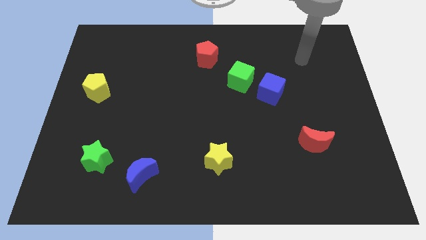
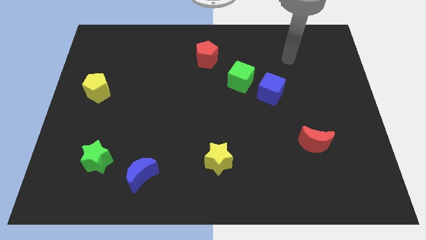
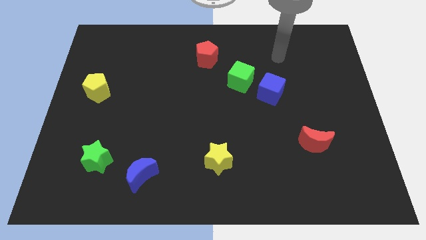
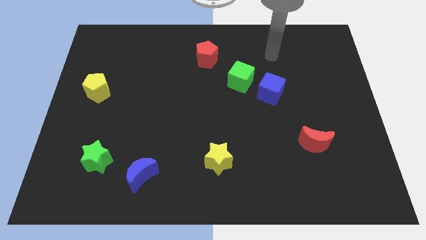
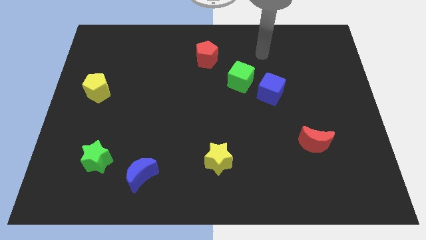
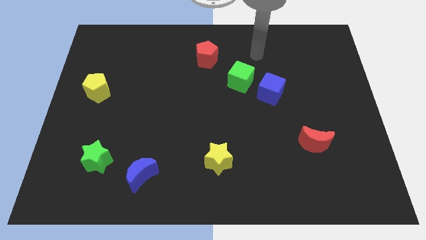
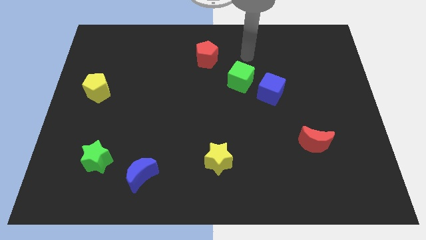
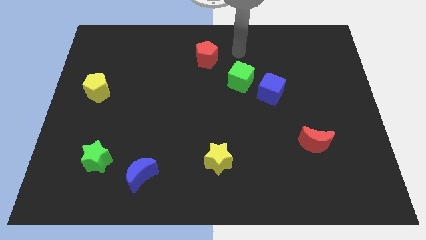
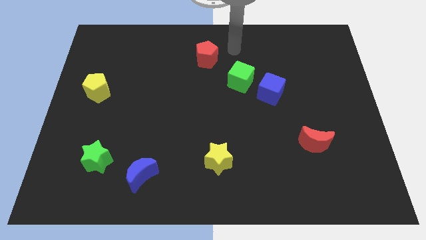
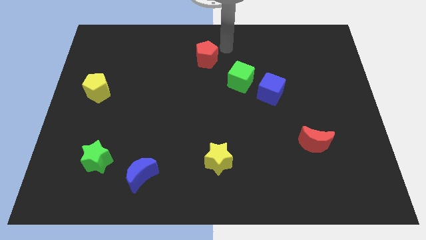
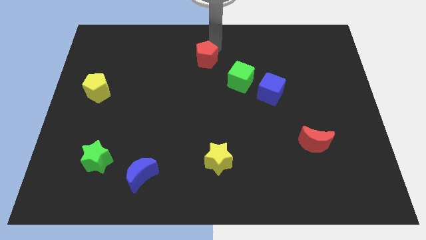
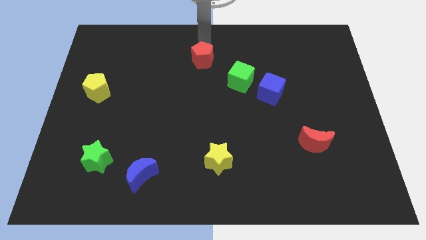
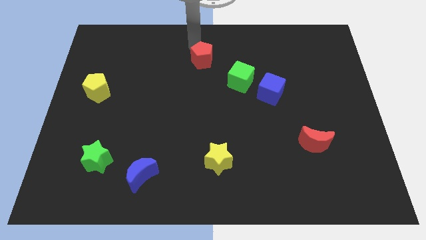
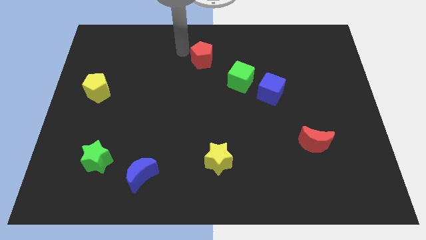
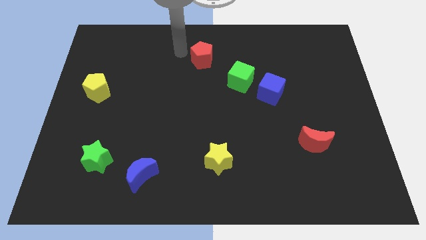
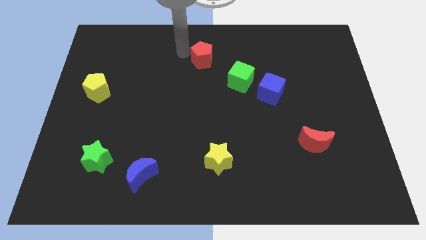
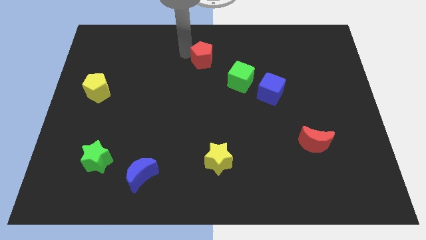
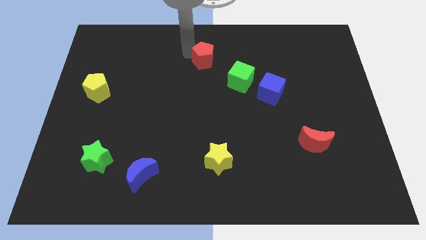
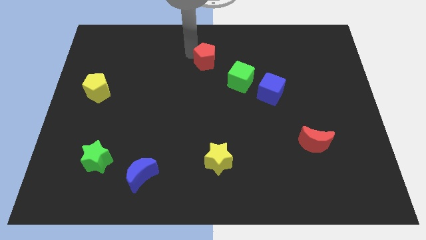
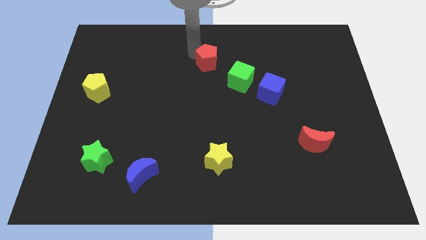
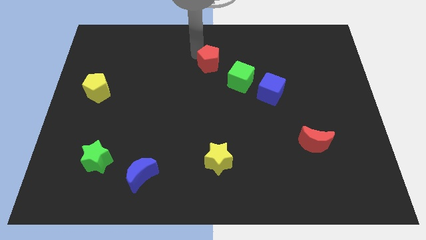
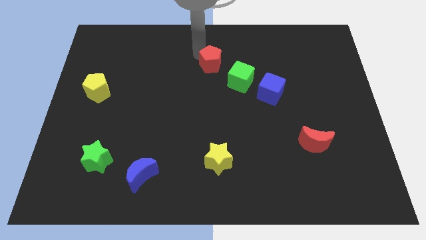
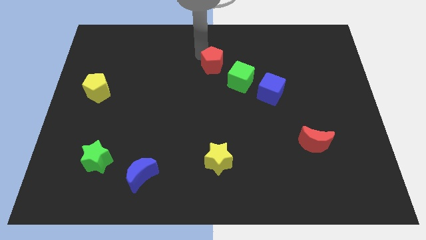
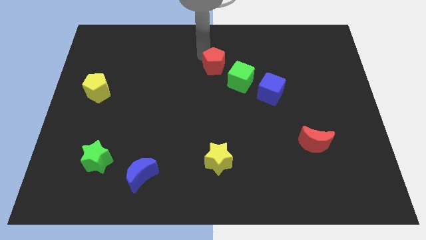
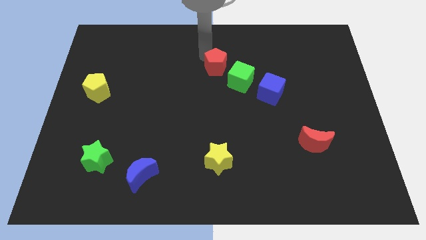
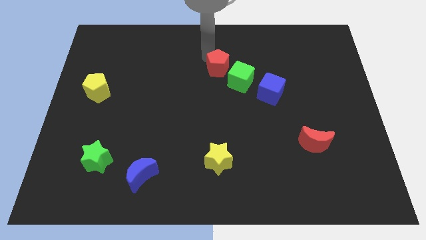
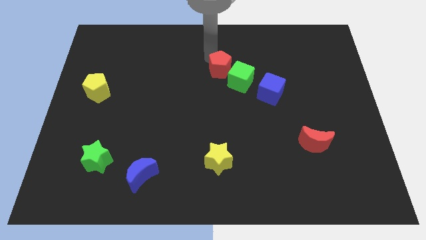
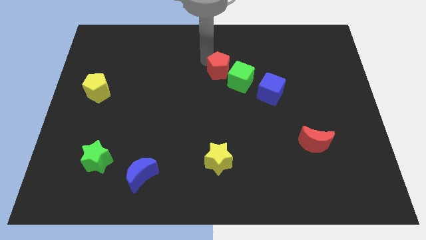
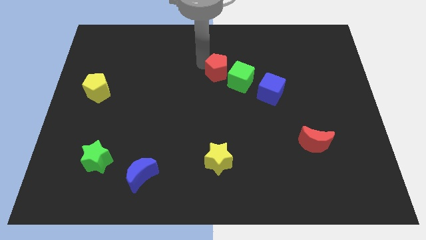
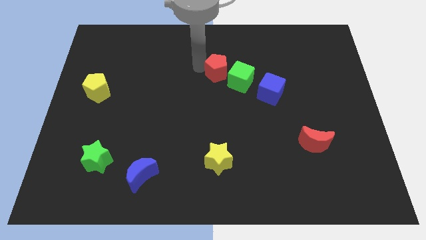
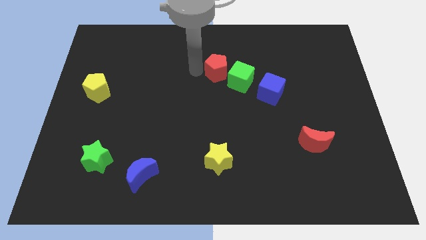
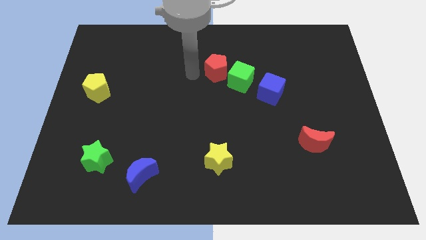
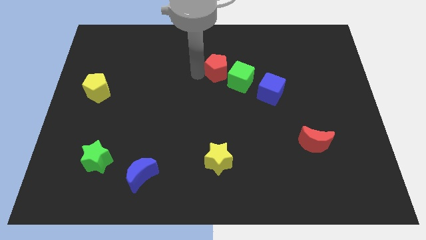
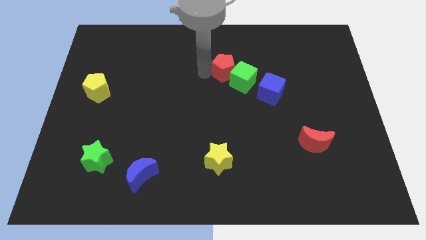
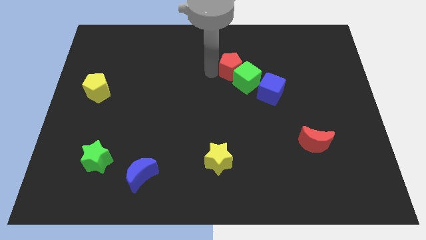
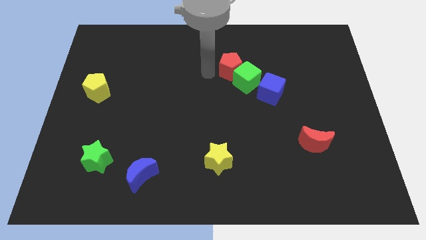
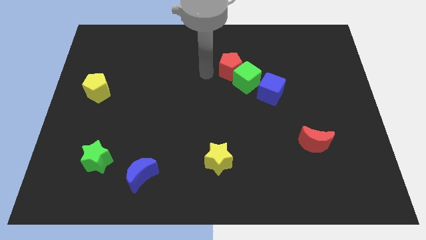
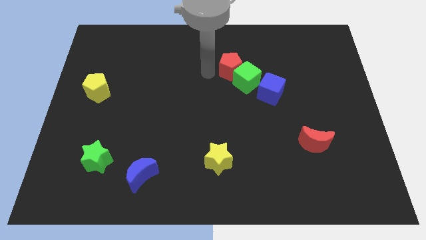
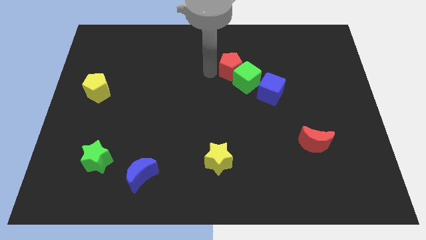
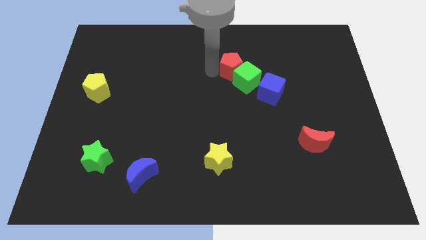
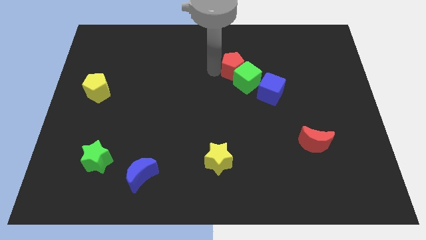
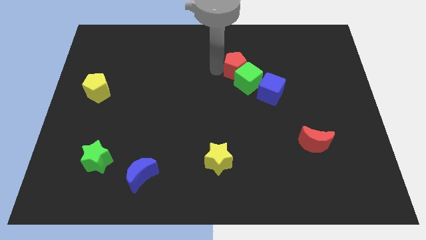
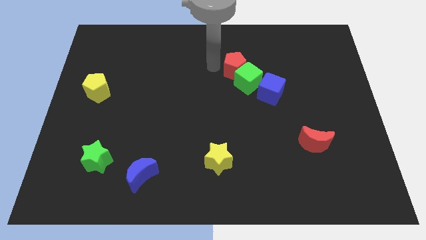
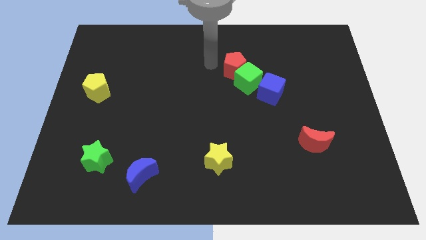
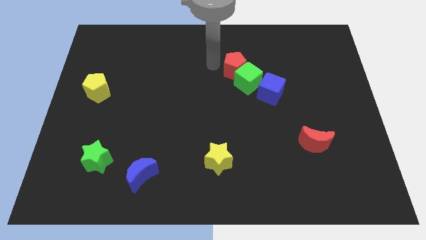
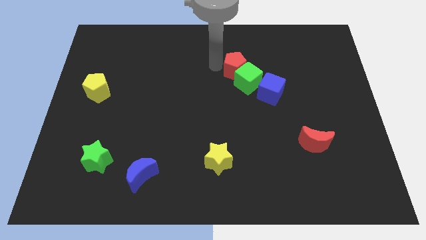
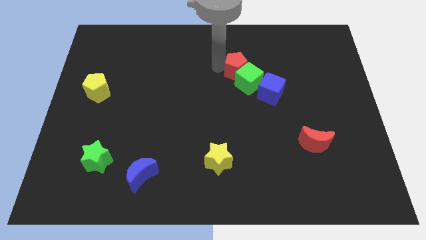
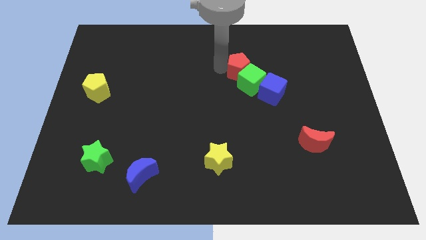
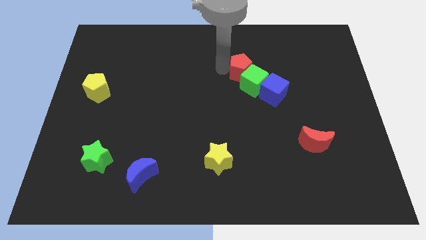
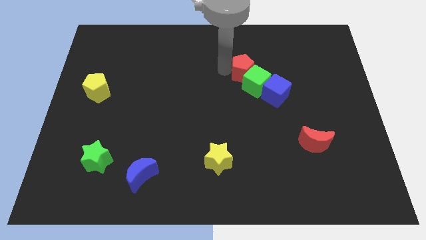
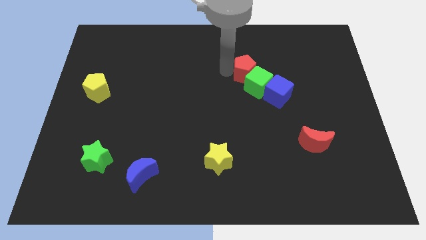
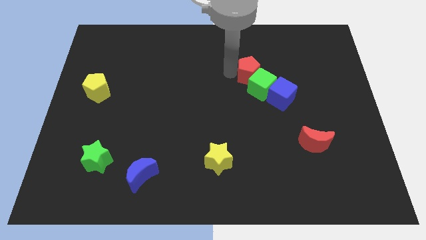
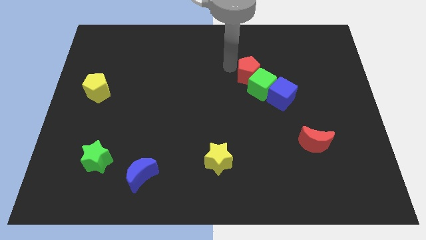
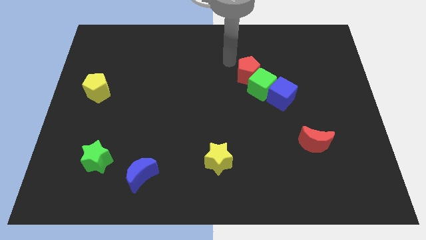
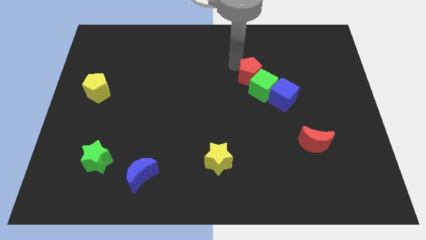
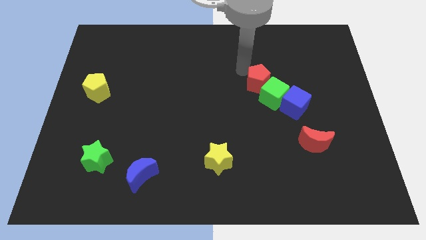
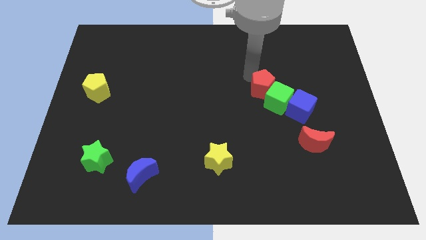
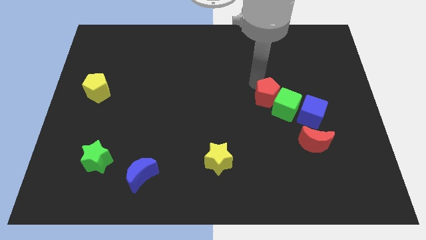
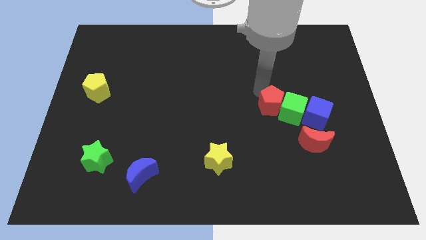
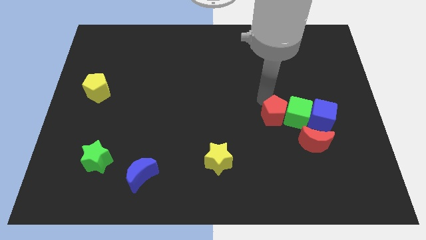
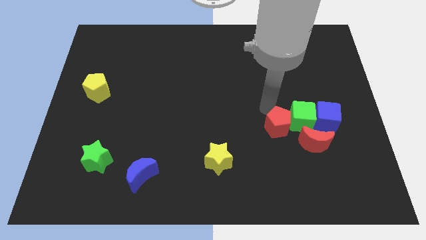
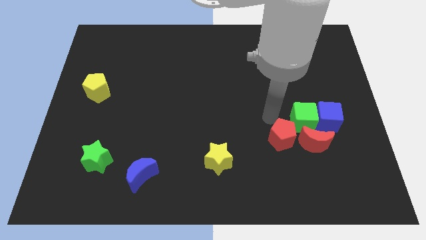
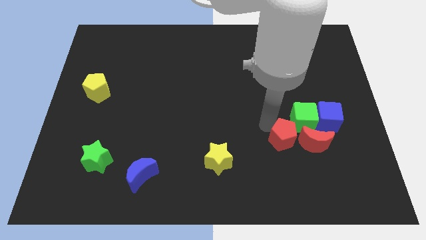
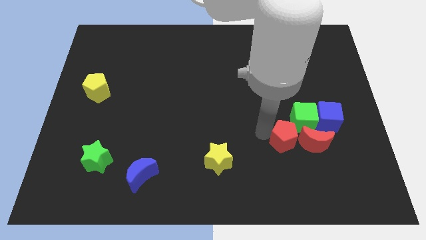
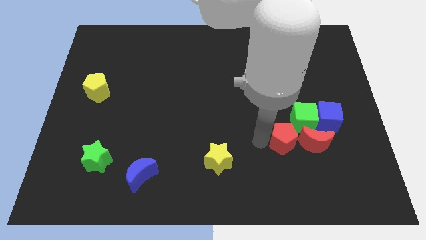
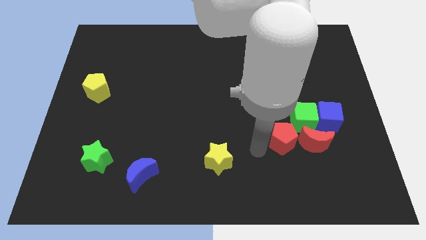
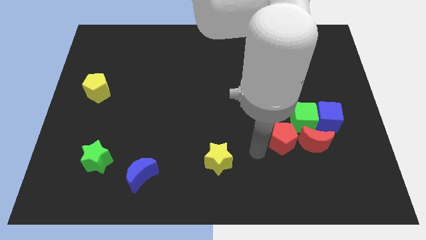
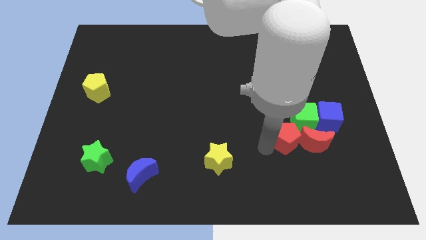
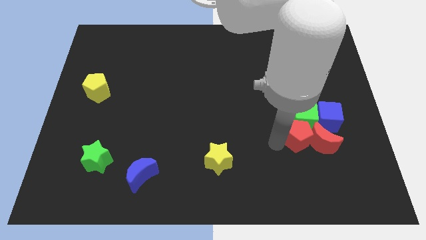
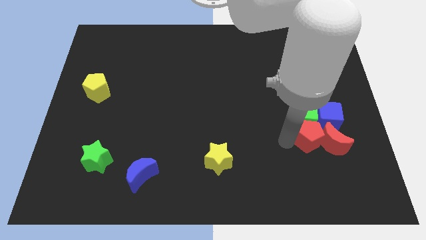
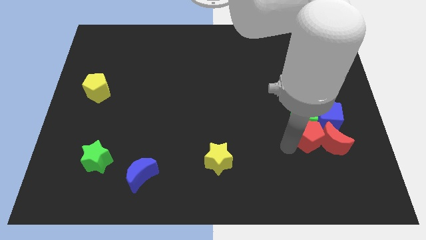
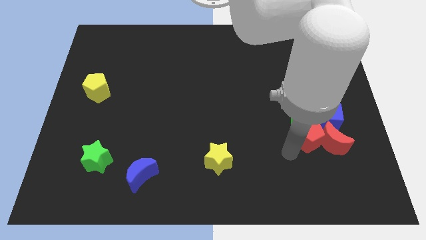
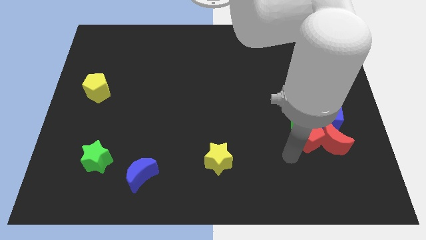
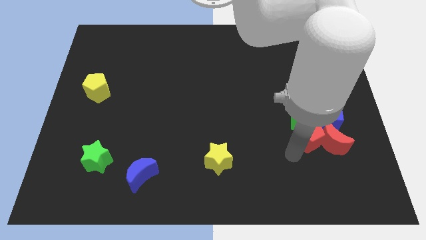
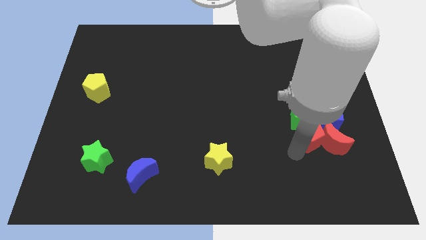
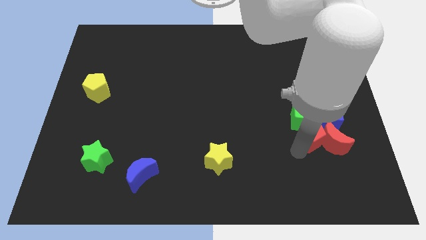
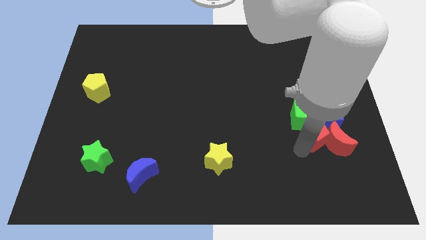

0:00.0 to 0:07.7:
move the red pentagon towards the blue cube
